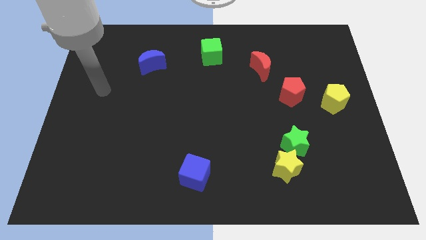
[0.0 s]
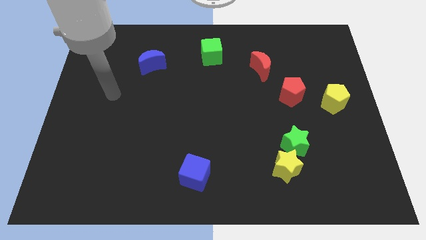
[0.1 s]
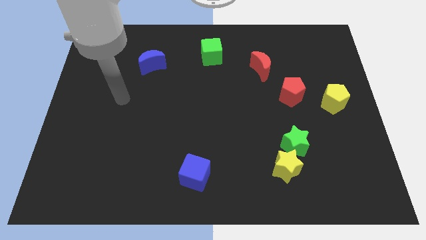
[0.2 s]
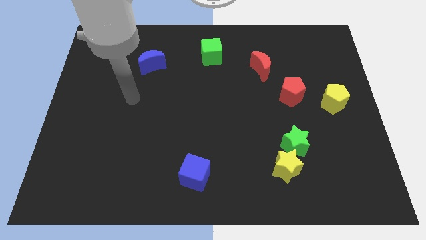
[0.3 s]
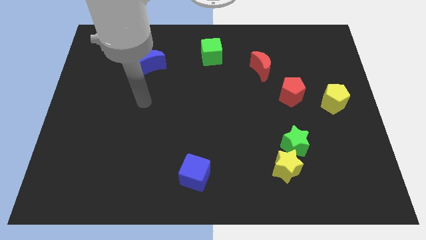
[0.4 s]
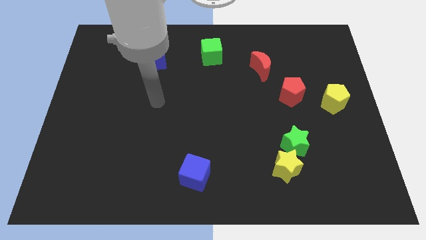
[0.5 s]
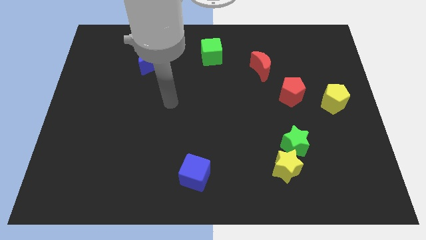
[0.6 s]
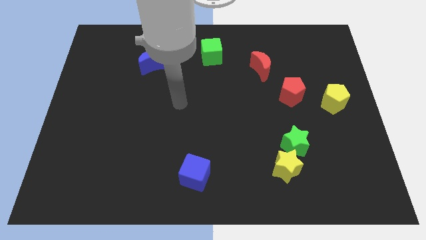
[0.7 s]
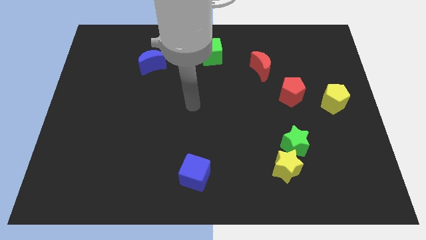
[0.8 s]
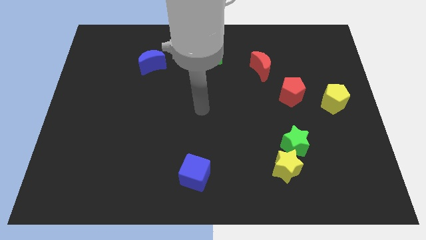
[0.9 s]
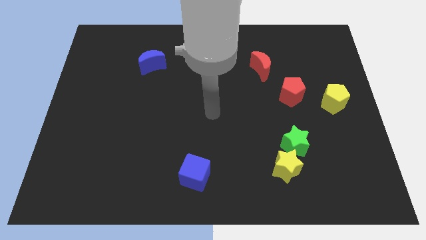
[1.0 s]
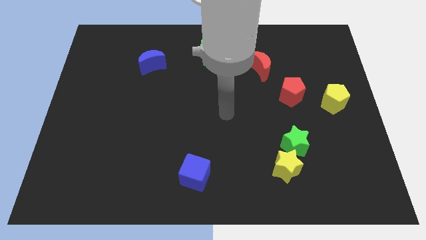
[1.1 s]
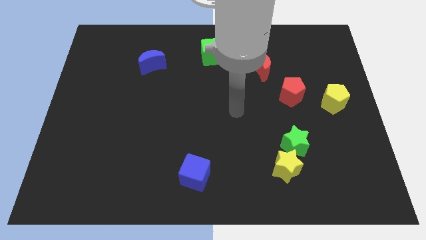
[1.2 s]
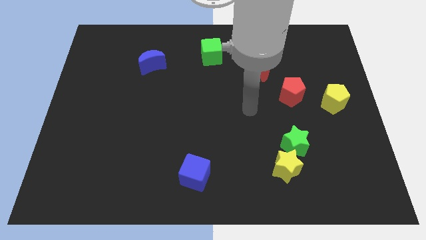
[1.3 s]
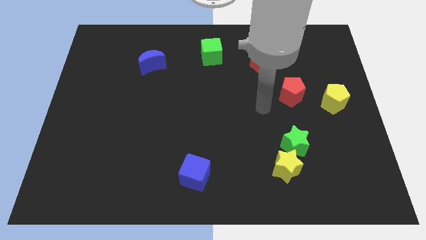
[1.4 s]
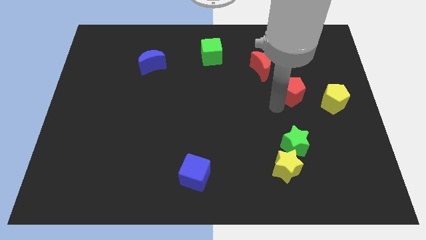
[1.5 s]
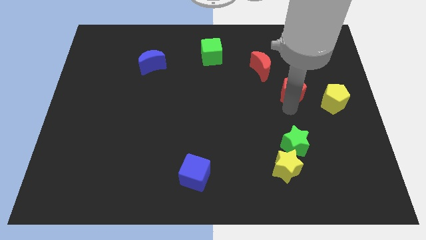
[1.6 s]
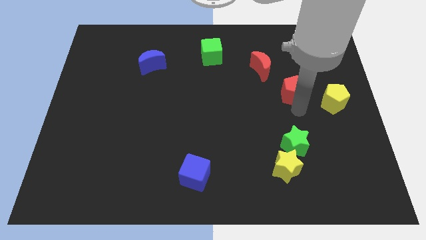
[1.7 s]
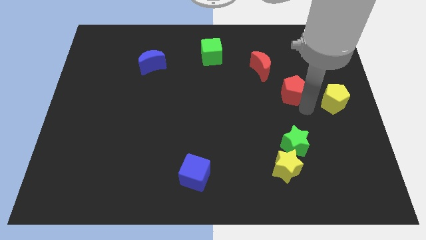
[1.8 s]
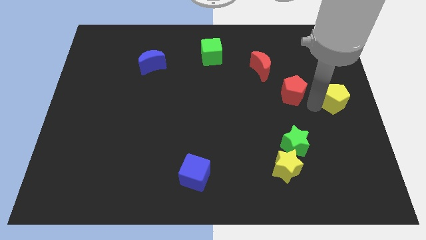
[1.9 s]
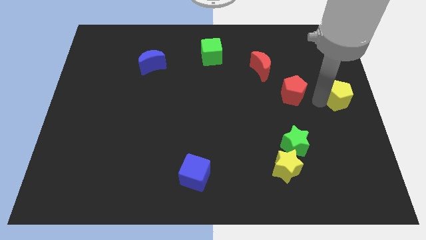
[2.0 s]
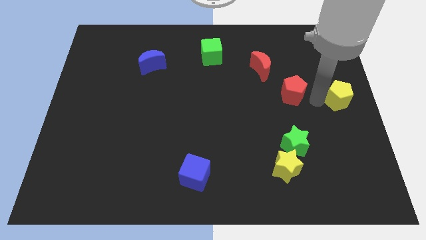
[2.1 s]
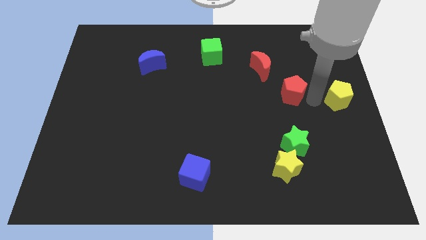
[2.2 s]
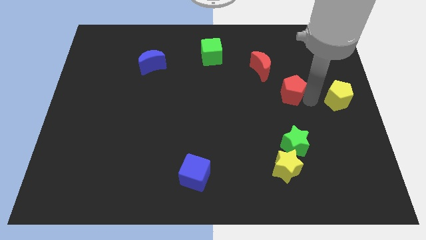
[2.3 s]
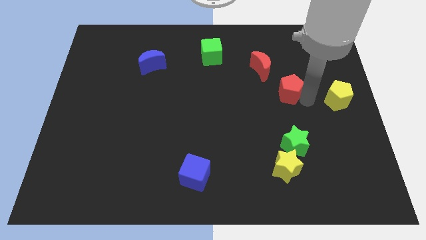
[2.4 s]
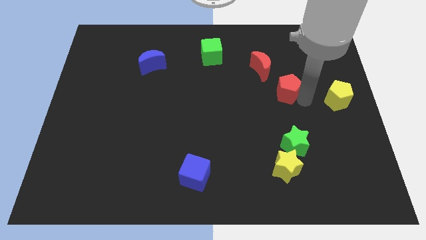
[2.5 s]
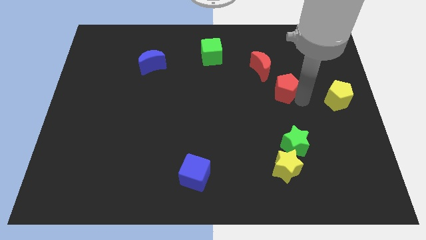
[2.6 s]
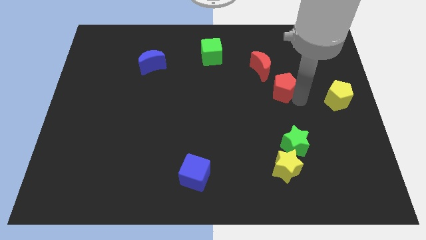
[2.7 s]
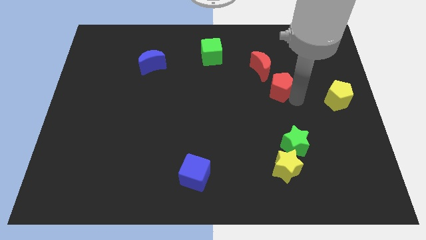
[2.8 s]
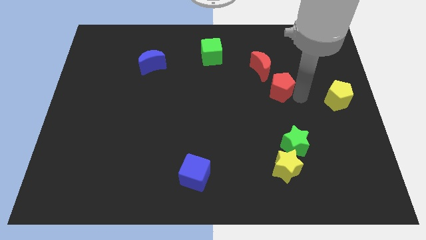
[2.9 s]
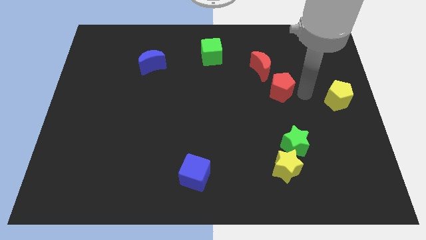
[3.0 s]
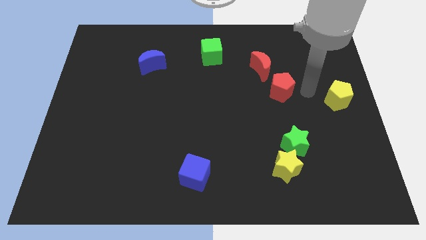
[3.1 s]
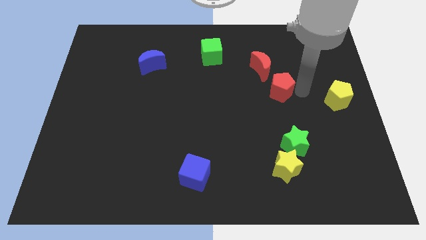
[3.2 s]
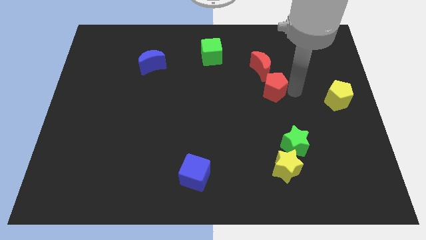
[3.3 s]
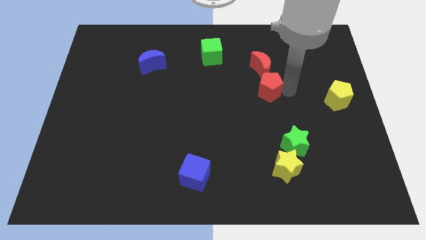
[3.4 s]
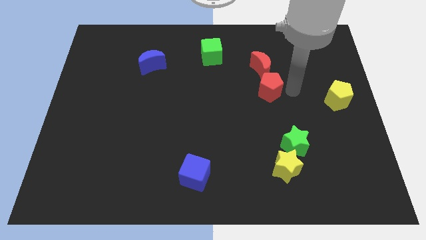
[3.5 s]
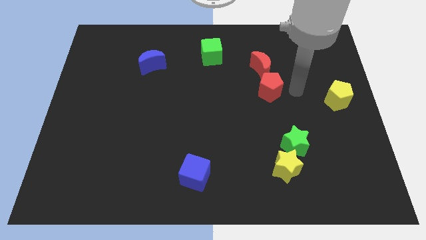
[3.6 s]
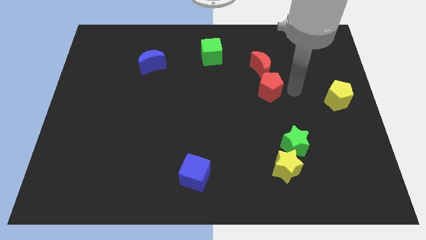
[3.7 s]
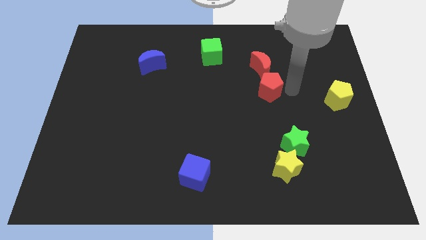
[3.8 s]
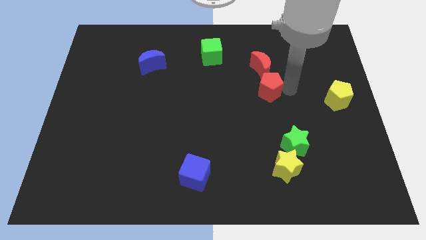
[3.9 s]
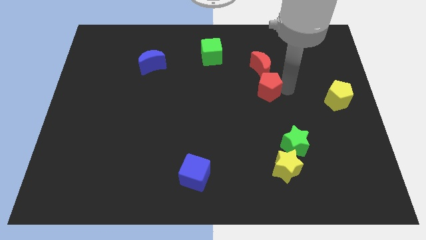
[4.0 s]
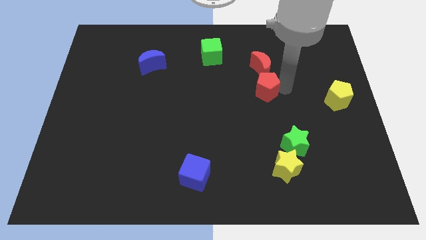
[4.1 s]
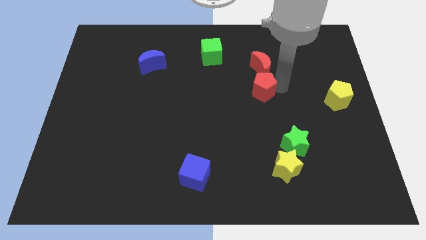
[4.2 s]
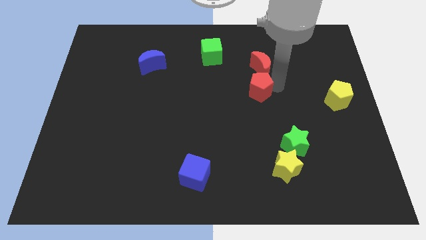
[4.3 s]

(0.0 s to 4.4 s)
move the red pentagon to the left a little bit

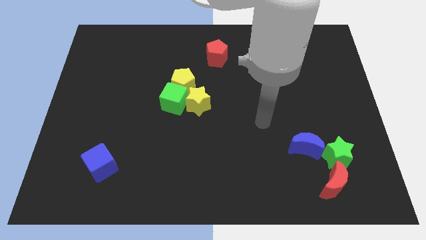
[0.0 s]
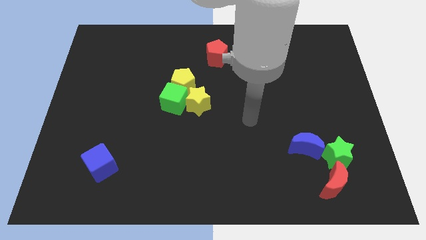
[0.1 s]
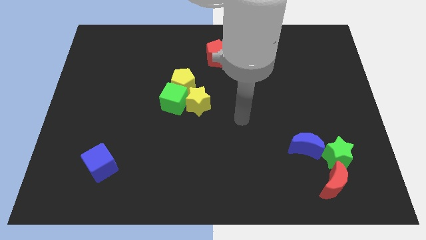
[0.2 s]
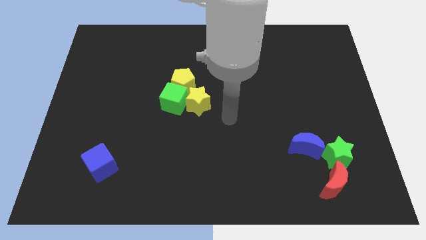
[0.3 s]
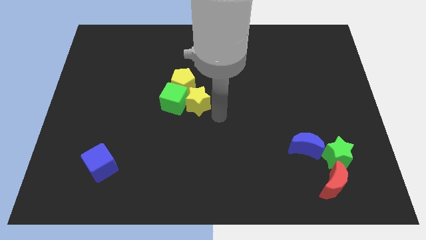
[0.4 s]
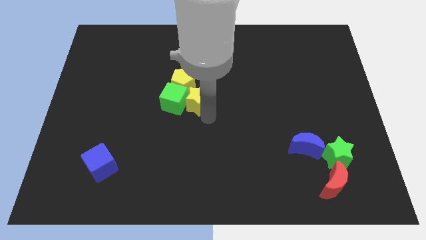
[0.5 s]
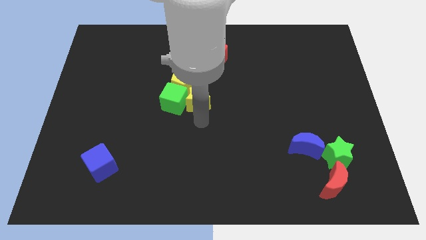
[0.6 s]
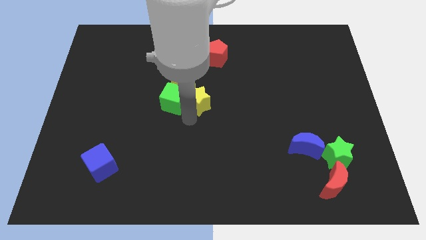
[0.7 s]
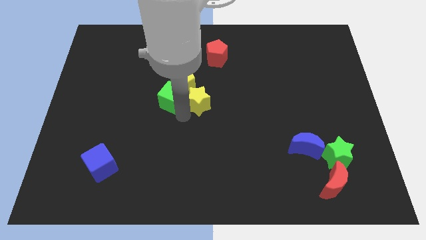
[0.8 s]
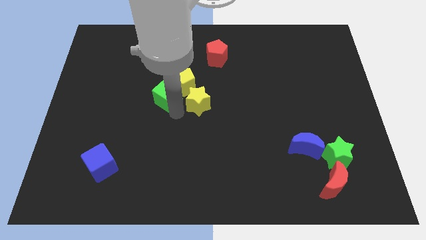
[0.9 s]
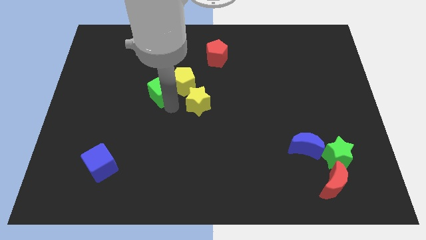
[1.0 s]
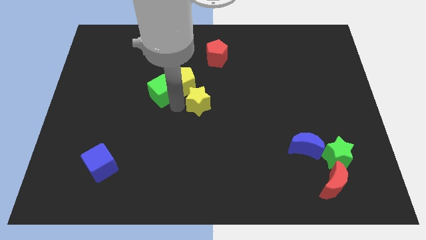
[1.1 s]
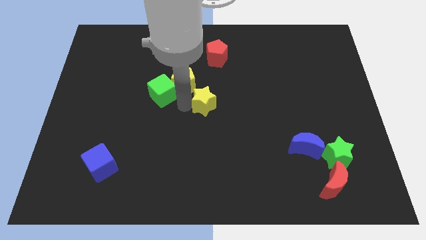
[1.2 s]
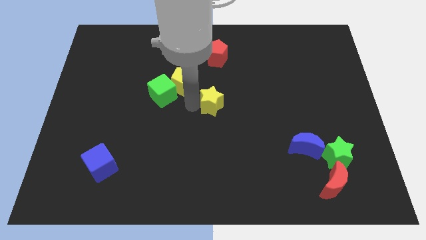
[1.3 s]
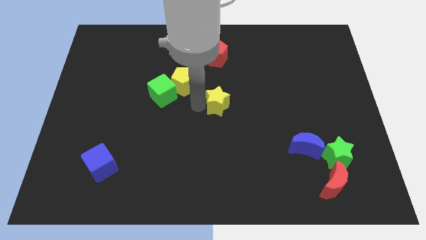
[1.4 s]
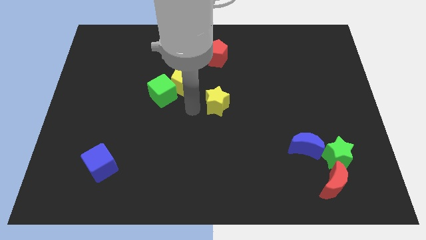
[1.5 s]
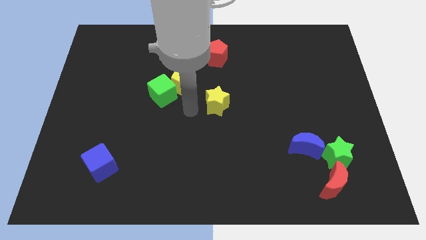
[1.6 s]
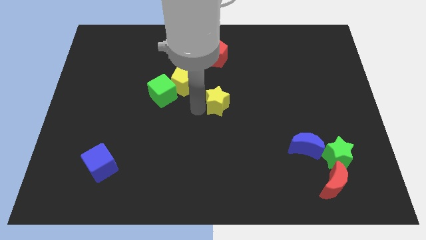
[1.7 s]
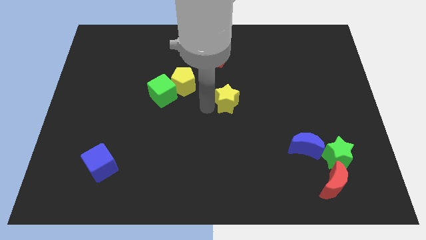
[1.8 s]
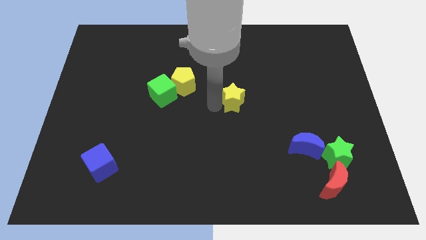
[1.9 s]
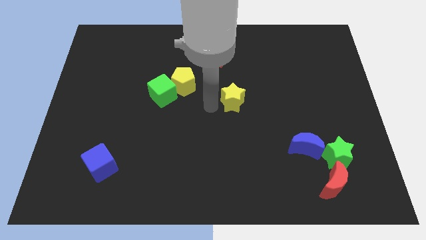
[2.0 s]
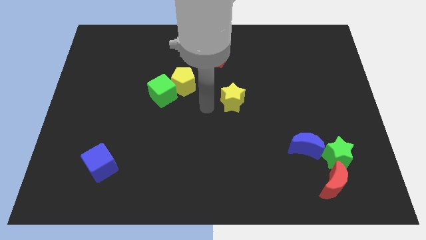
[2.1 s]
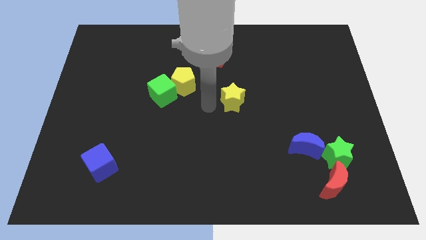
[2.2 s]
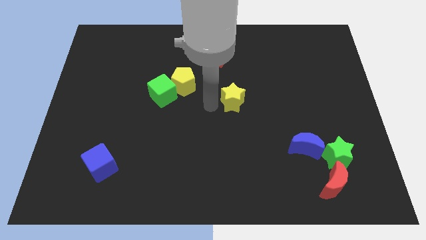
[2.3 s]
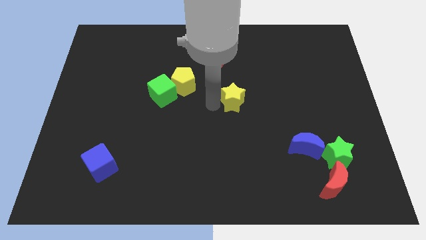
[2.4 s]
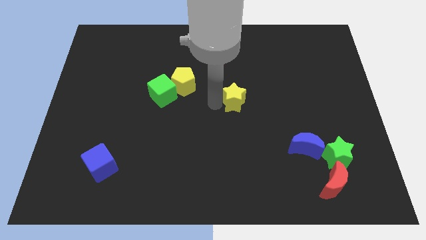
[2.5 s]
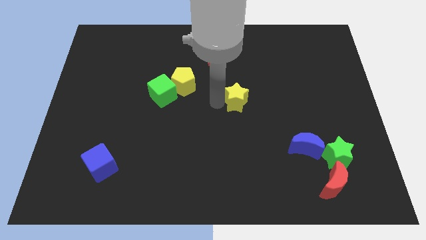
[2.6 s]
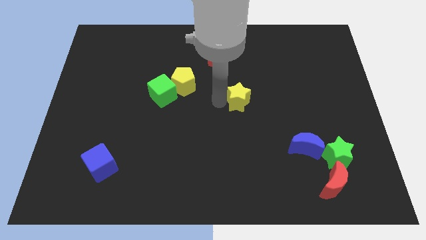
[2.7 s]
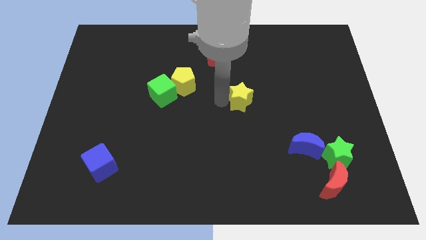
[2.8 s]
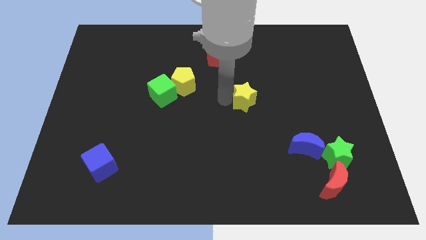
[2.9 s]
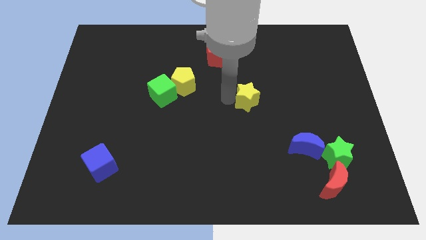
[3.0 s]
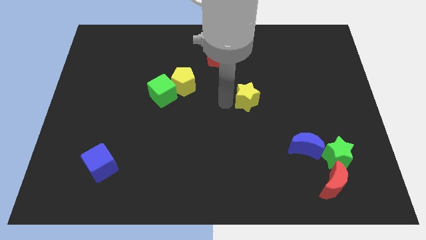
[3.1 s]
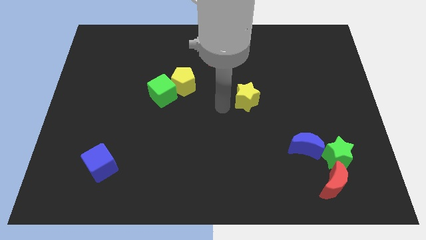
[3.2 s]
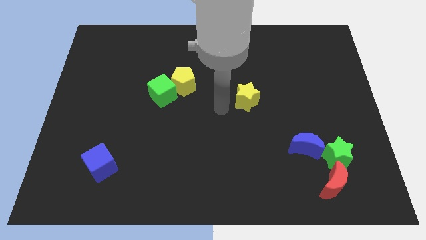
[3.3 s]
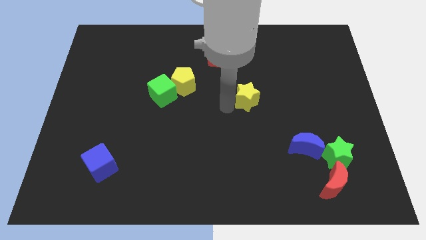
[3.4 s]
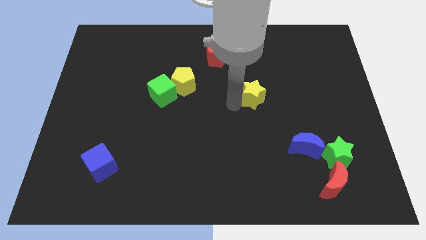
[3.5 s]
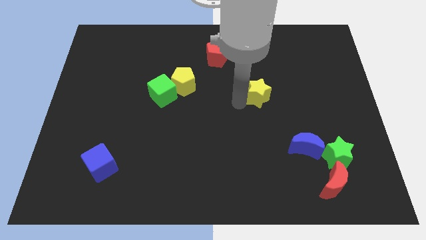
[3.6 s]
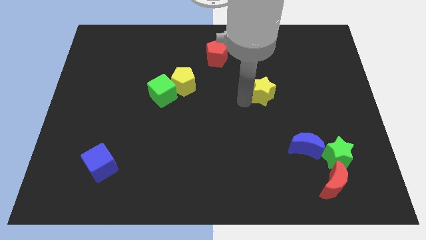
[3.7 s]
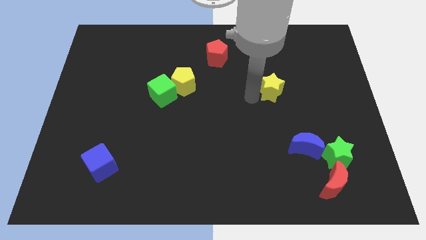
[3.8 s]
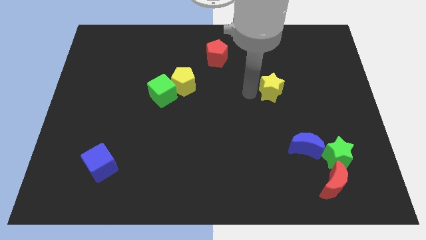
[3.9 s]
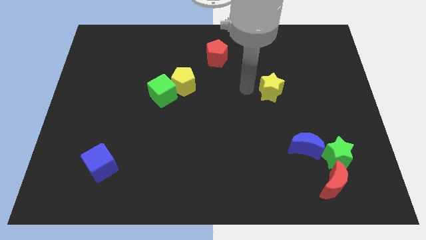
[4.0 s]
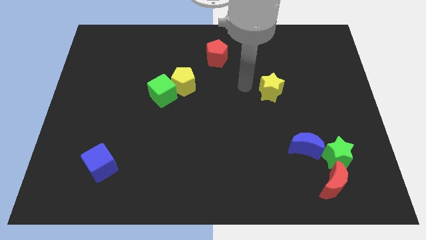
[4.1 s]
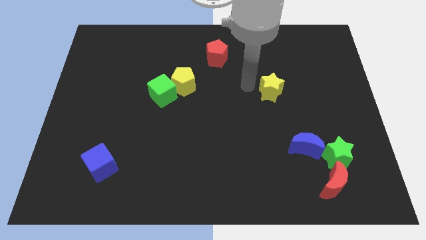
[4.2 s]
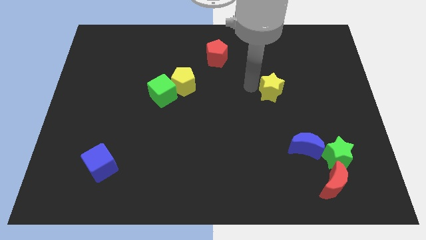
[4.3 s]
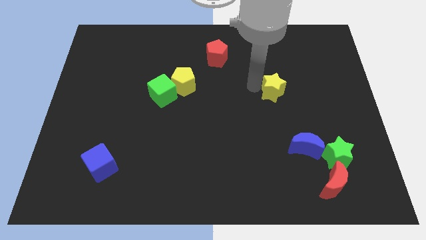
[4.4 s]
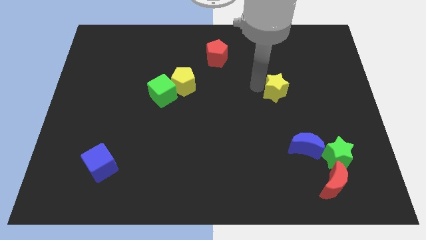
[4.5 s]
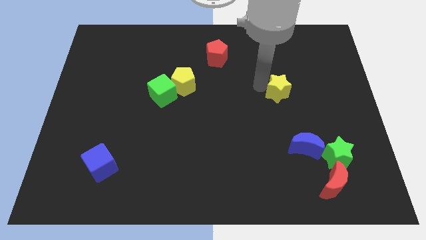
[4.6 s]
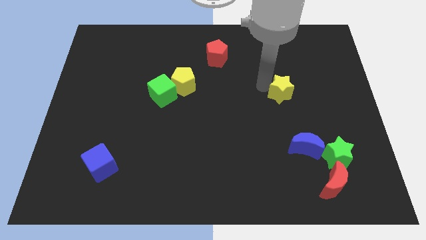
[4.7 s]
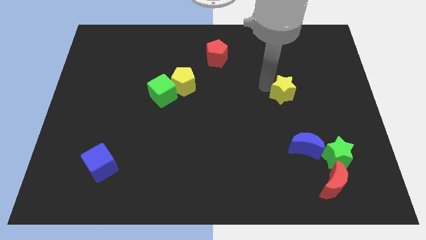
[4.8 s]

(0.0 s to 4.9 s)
push the yellow star to the right
